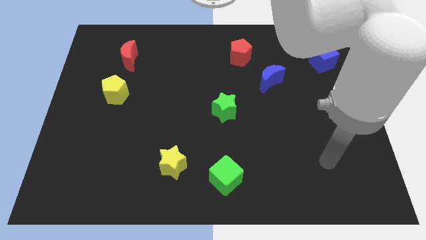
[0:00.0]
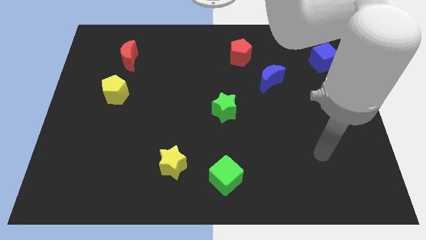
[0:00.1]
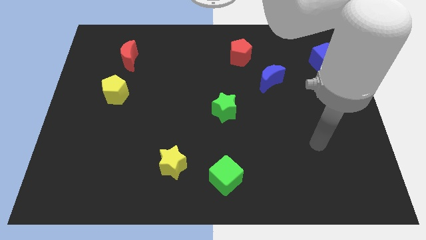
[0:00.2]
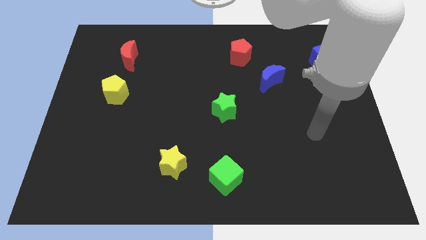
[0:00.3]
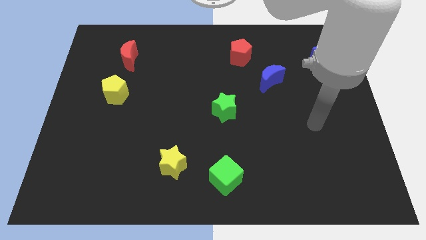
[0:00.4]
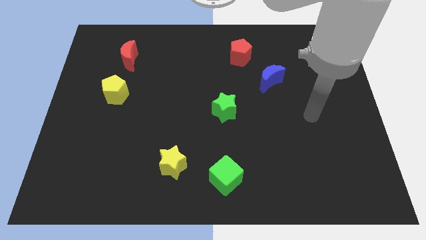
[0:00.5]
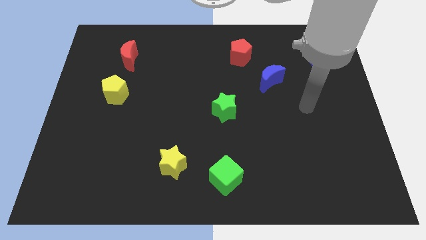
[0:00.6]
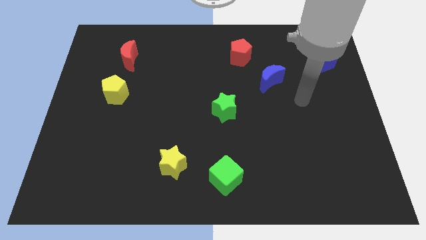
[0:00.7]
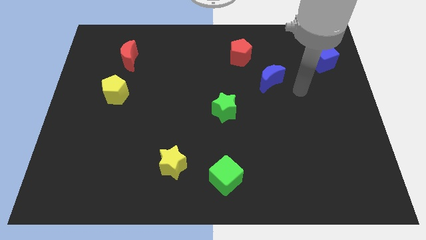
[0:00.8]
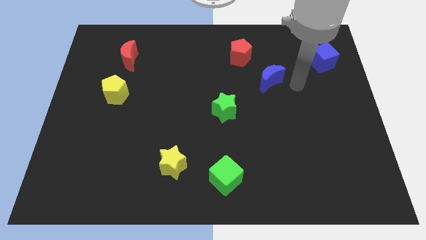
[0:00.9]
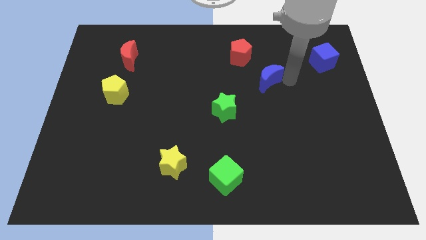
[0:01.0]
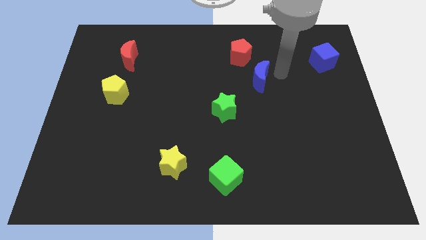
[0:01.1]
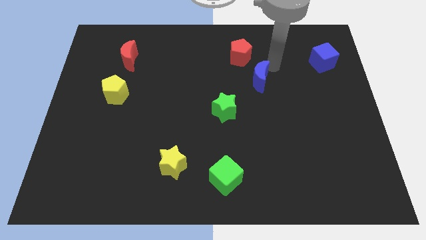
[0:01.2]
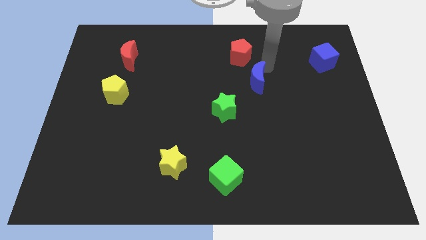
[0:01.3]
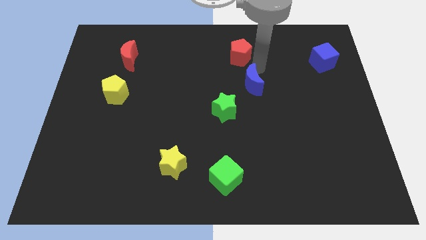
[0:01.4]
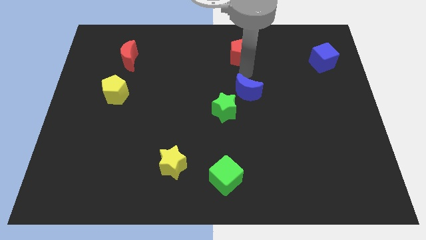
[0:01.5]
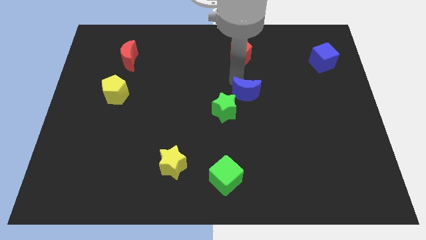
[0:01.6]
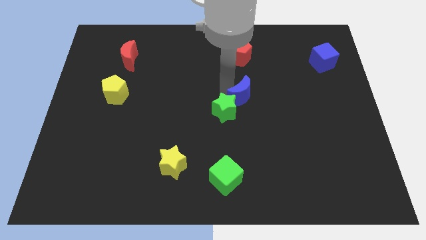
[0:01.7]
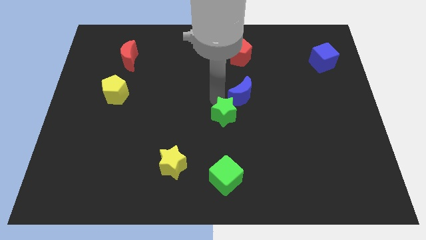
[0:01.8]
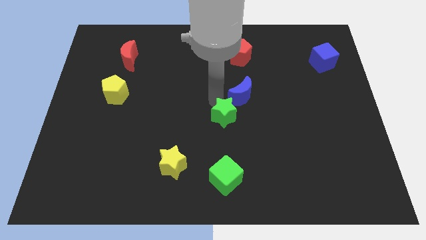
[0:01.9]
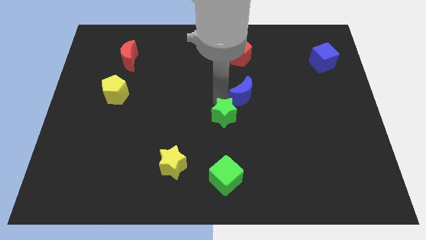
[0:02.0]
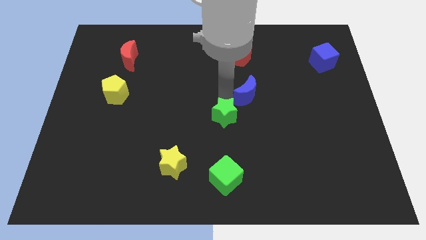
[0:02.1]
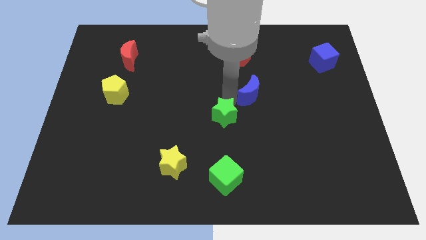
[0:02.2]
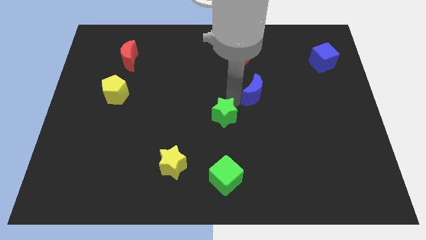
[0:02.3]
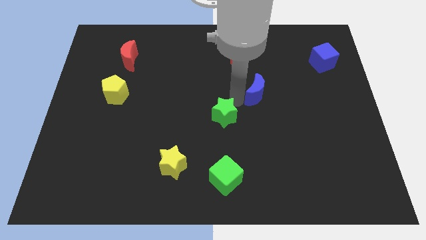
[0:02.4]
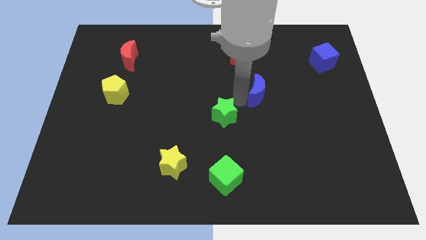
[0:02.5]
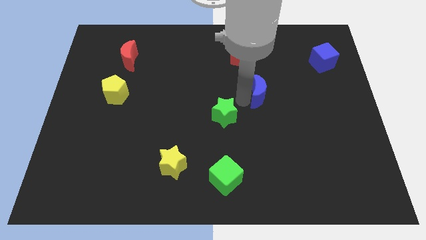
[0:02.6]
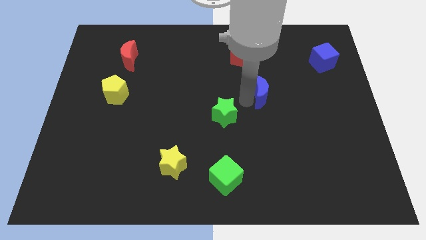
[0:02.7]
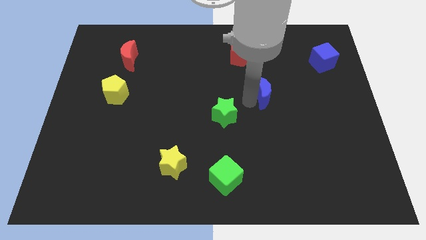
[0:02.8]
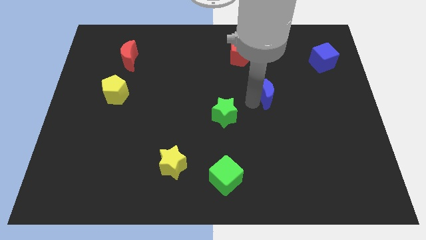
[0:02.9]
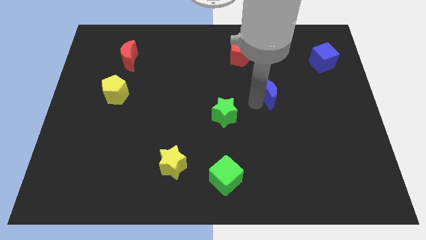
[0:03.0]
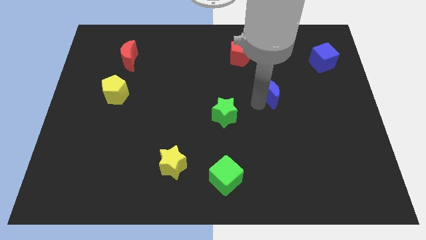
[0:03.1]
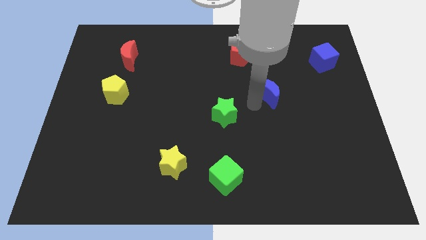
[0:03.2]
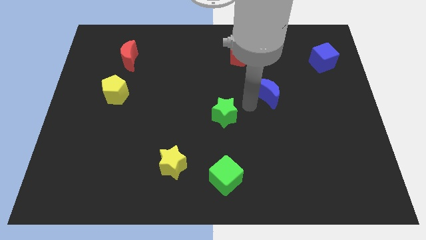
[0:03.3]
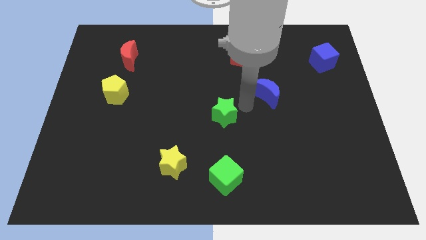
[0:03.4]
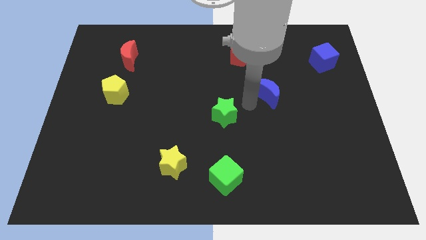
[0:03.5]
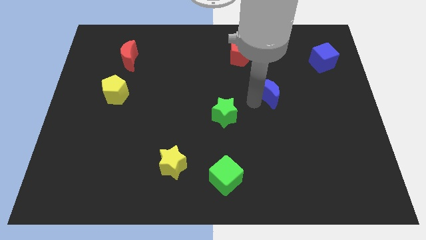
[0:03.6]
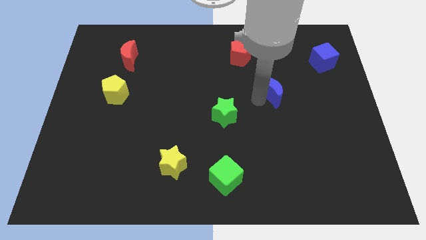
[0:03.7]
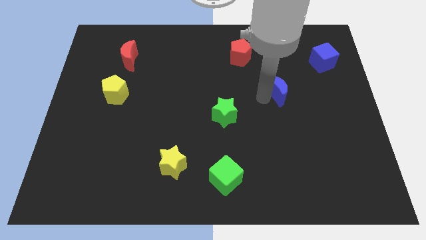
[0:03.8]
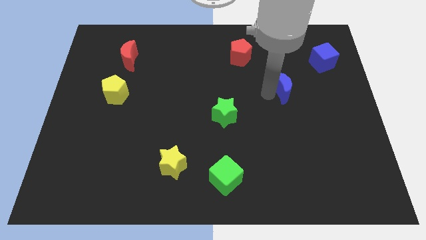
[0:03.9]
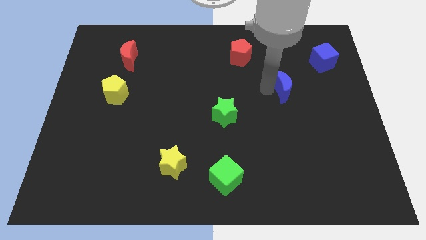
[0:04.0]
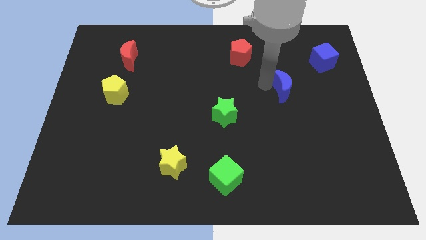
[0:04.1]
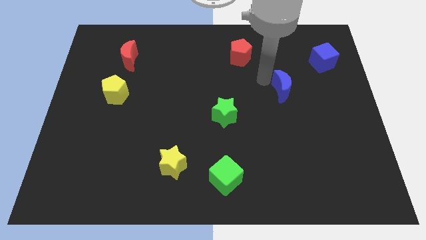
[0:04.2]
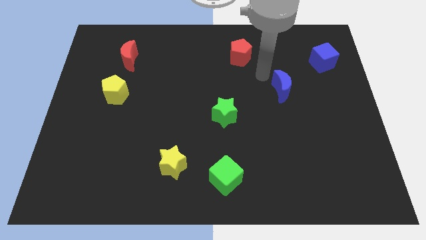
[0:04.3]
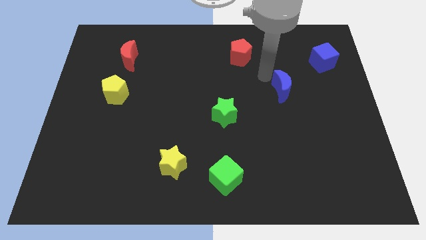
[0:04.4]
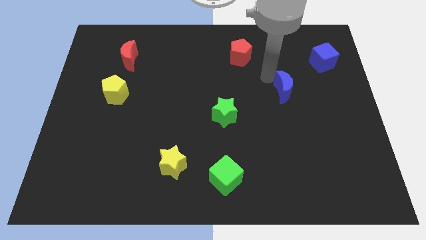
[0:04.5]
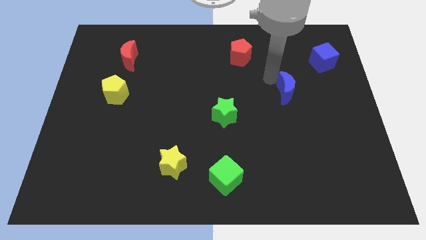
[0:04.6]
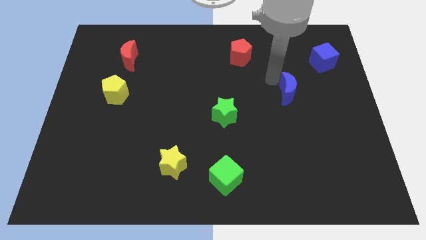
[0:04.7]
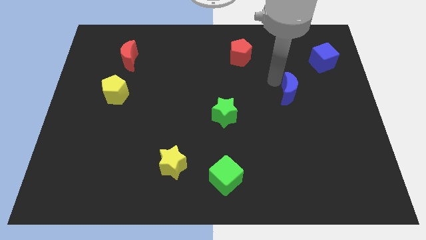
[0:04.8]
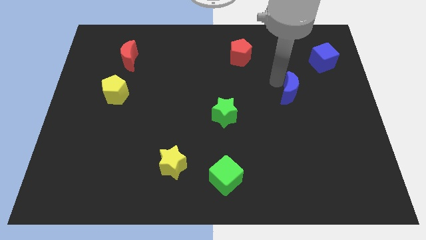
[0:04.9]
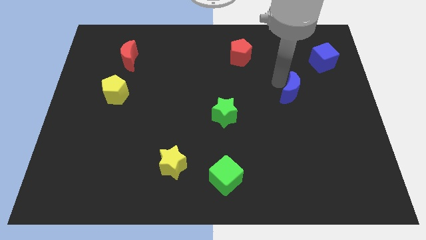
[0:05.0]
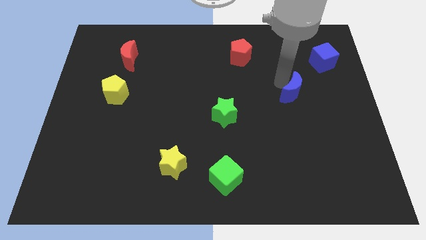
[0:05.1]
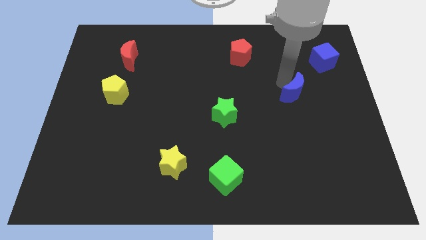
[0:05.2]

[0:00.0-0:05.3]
move the blue moon downwards and right a little bit

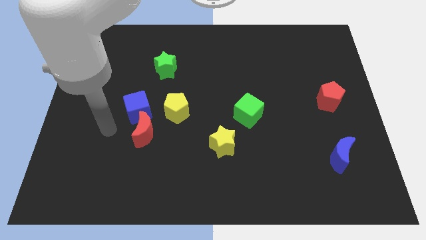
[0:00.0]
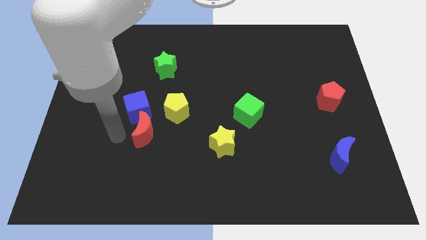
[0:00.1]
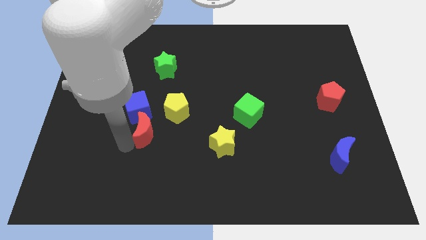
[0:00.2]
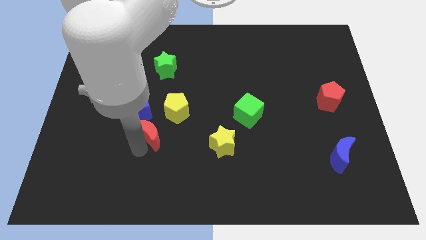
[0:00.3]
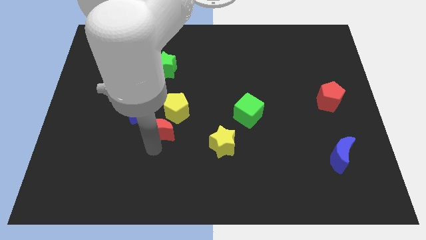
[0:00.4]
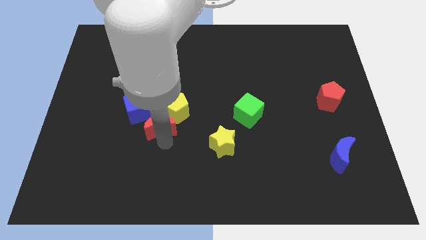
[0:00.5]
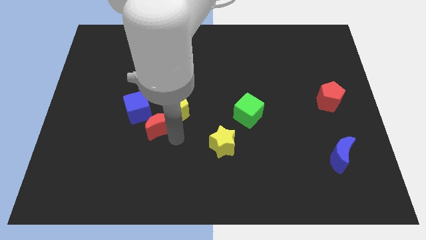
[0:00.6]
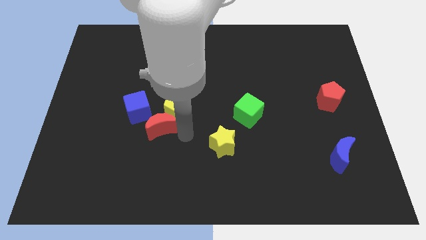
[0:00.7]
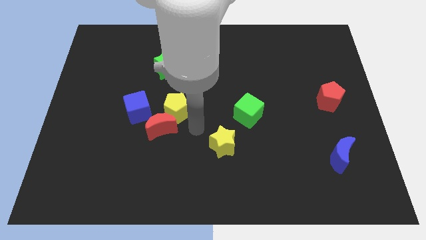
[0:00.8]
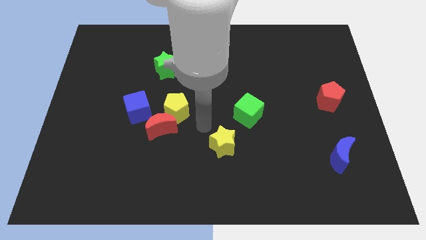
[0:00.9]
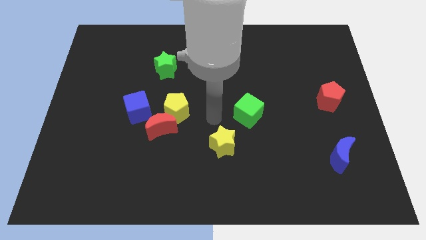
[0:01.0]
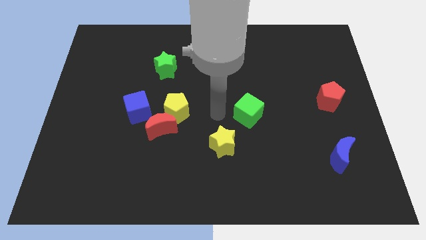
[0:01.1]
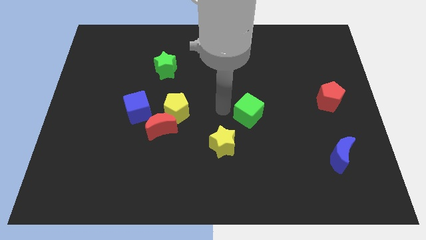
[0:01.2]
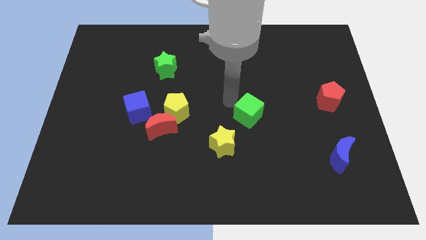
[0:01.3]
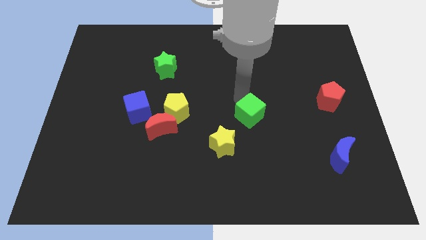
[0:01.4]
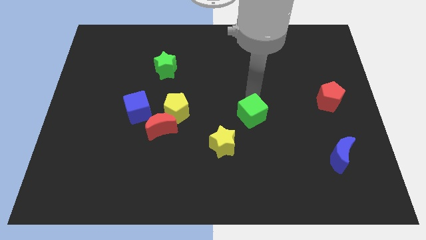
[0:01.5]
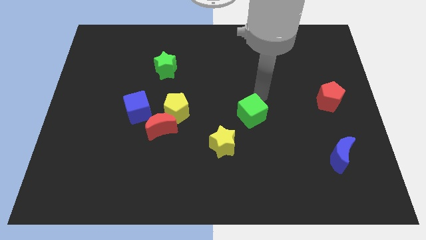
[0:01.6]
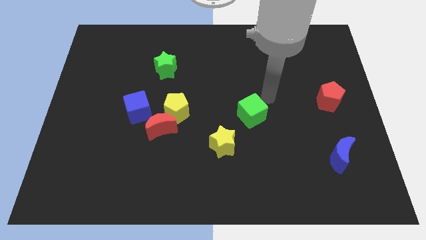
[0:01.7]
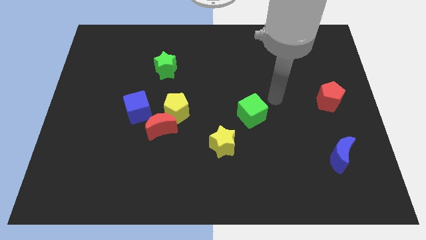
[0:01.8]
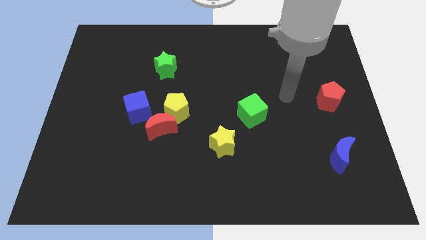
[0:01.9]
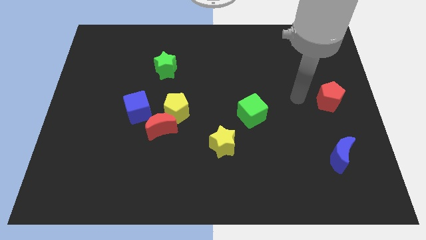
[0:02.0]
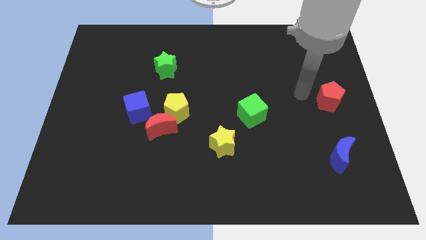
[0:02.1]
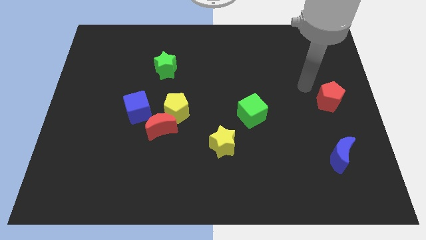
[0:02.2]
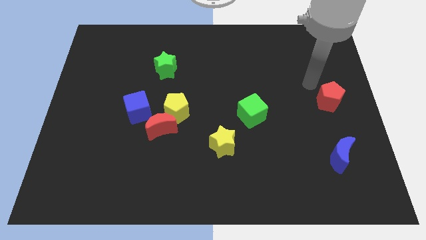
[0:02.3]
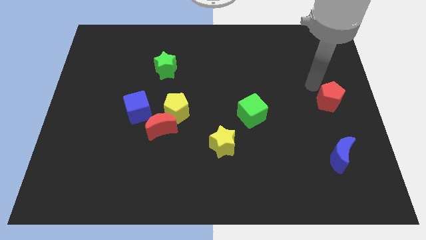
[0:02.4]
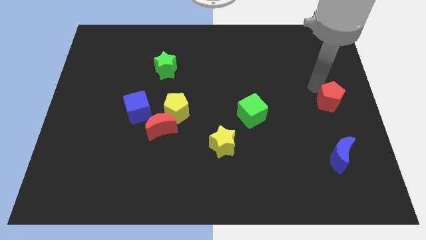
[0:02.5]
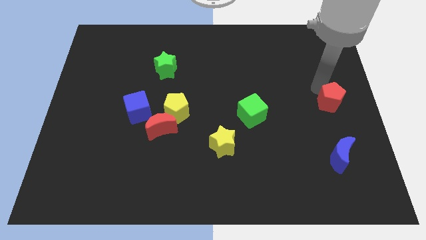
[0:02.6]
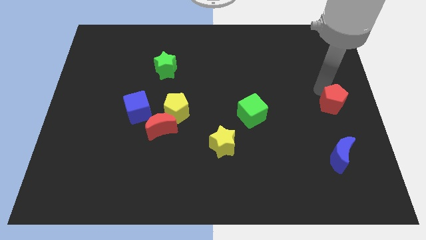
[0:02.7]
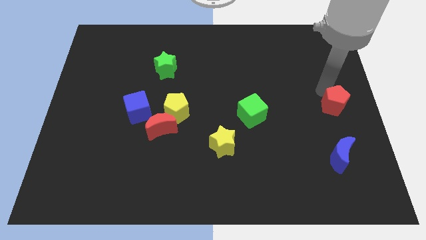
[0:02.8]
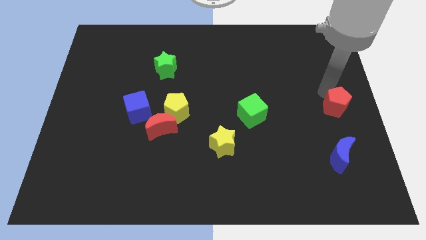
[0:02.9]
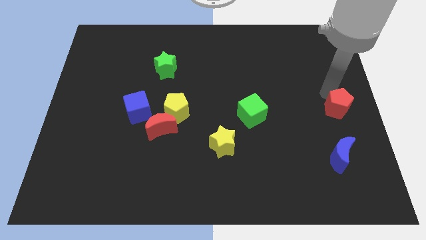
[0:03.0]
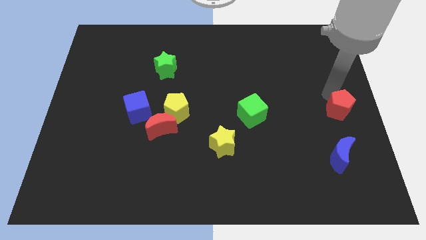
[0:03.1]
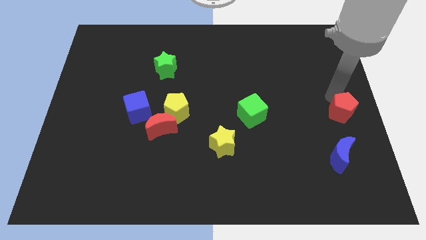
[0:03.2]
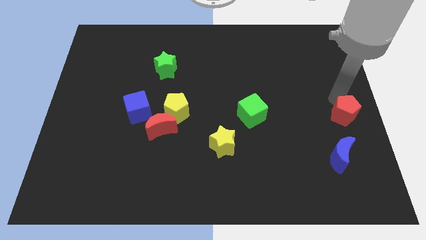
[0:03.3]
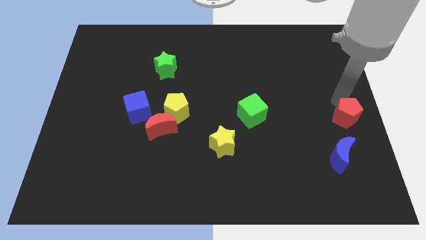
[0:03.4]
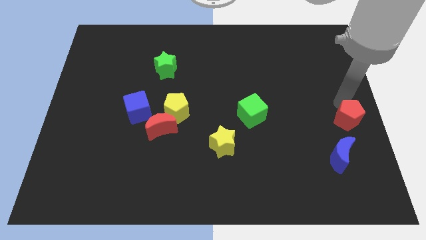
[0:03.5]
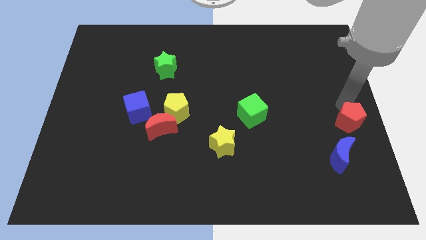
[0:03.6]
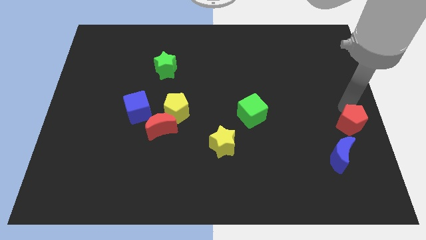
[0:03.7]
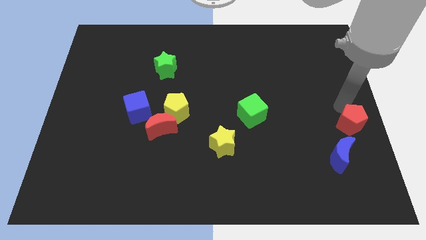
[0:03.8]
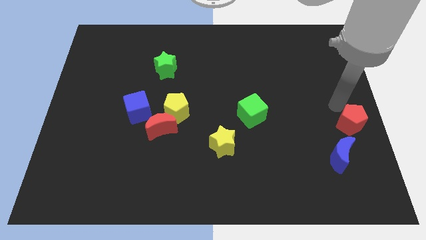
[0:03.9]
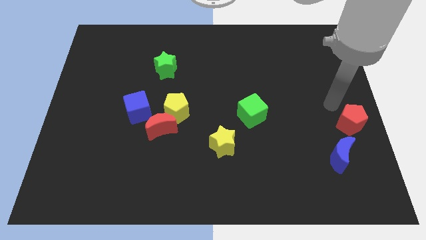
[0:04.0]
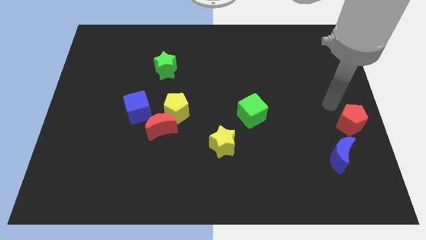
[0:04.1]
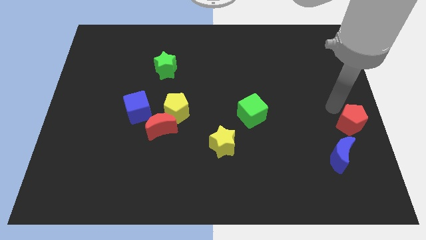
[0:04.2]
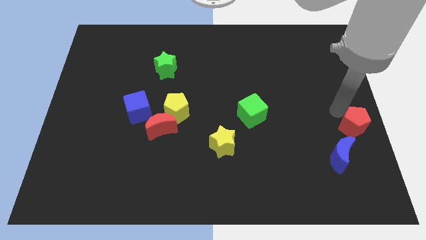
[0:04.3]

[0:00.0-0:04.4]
slide the red pentagon slightly down
